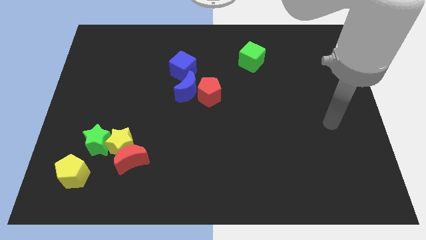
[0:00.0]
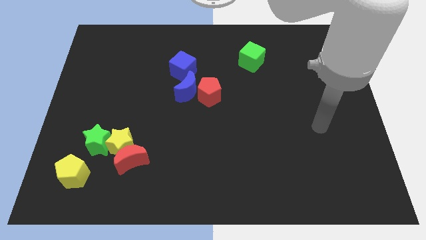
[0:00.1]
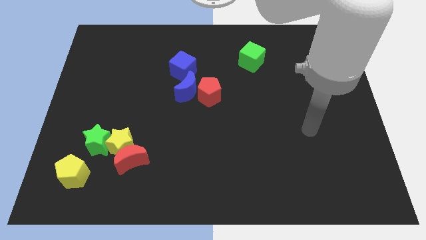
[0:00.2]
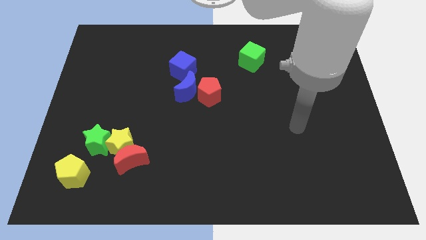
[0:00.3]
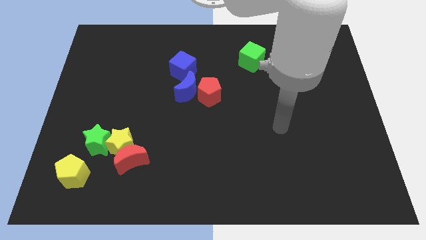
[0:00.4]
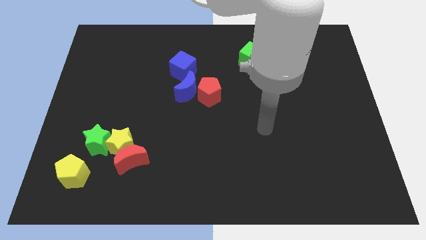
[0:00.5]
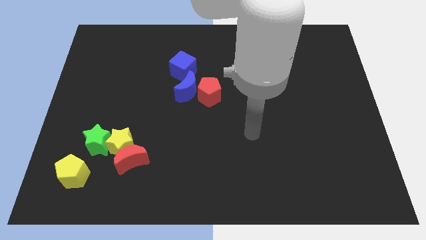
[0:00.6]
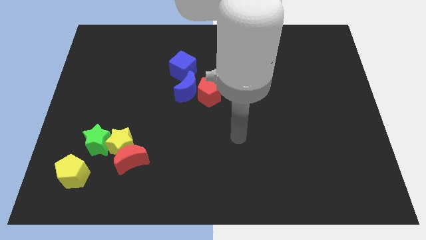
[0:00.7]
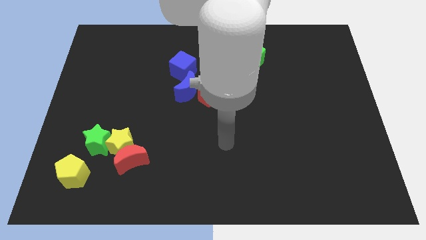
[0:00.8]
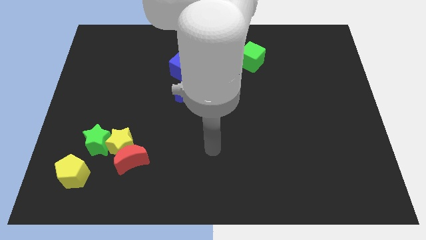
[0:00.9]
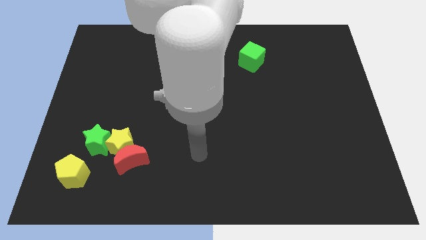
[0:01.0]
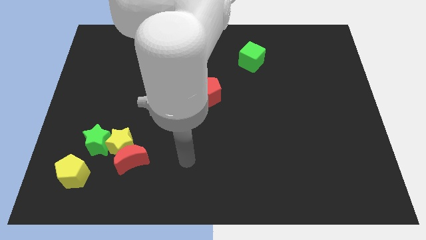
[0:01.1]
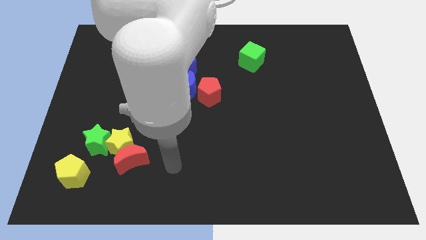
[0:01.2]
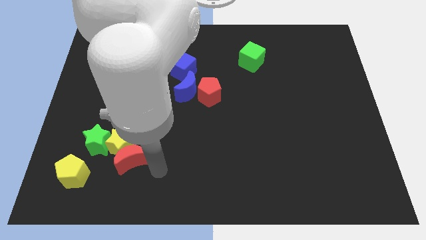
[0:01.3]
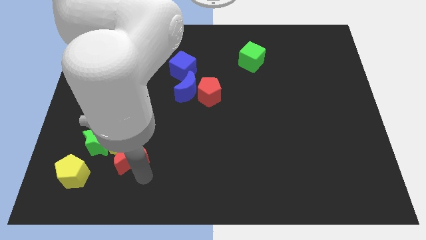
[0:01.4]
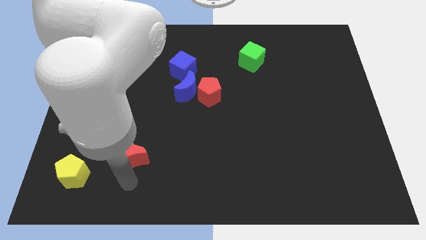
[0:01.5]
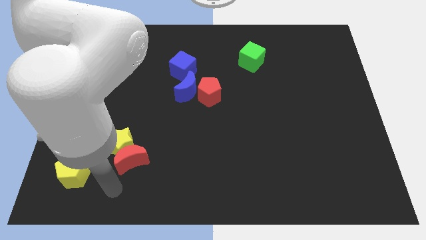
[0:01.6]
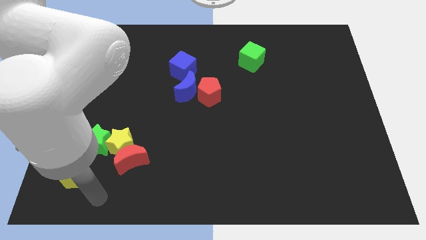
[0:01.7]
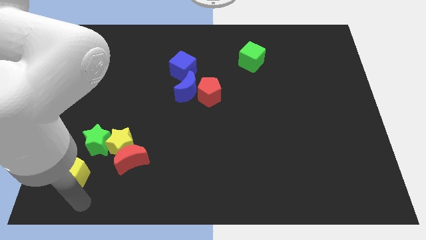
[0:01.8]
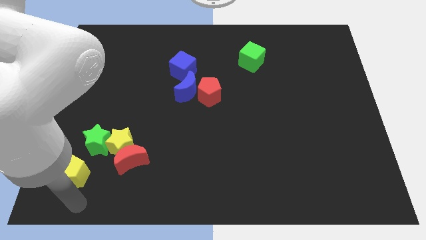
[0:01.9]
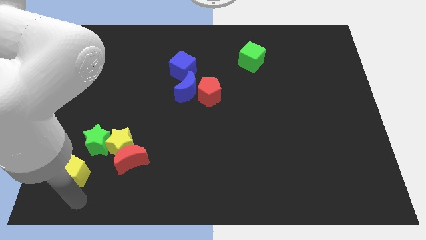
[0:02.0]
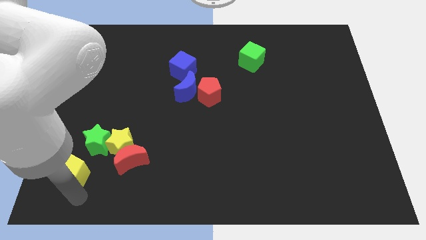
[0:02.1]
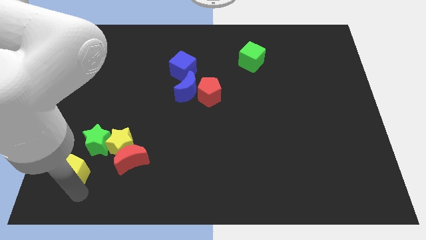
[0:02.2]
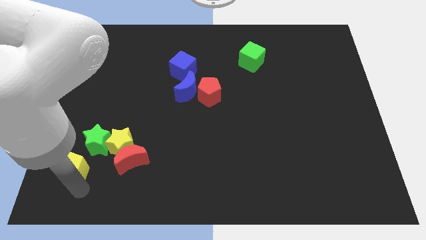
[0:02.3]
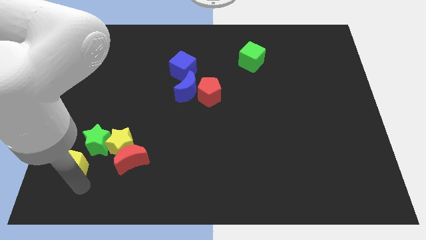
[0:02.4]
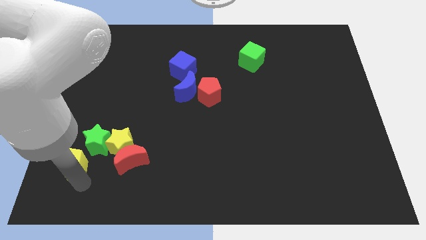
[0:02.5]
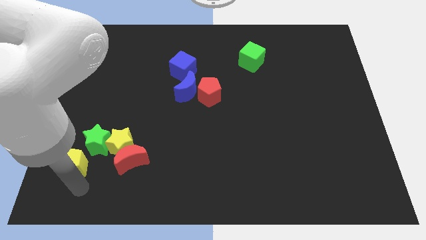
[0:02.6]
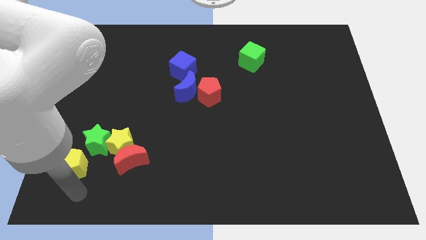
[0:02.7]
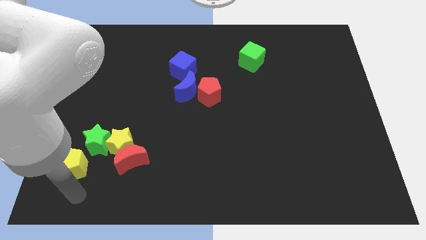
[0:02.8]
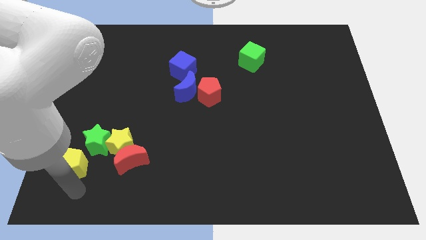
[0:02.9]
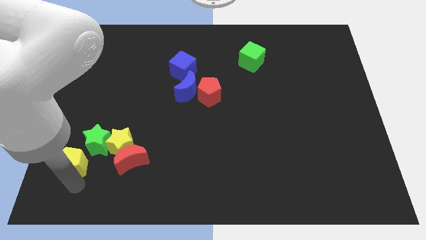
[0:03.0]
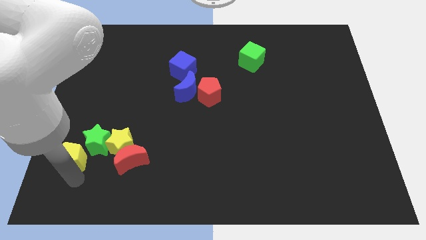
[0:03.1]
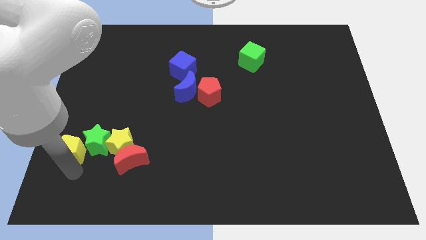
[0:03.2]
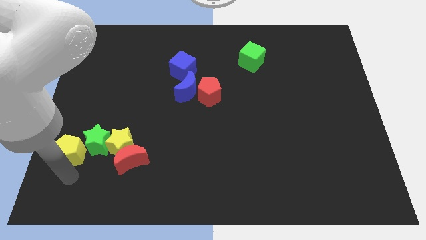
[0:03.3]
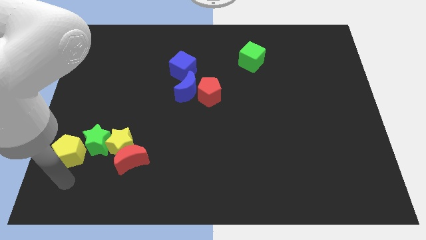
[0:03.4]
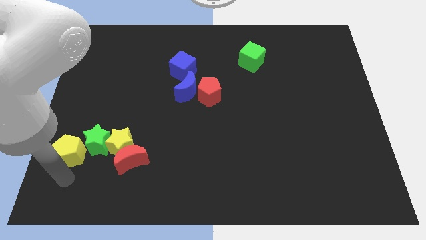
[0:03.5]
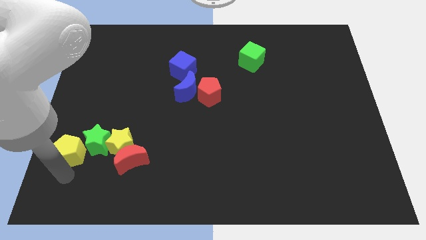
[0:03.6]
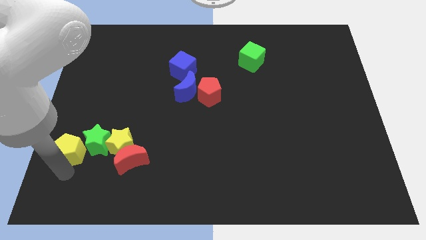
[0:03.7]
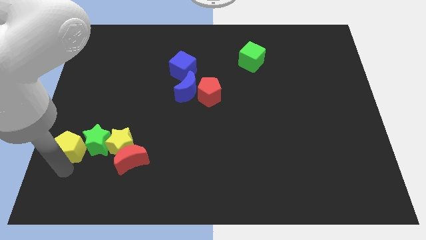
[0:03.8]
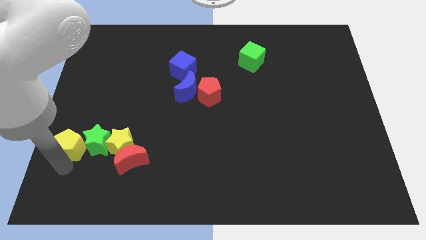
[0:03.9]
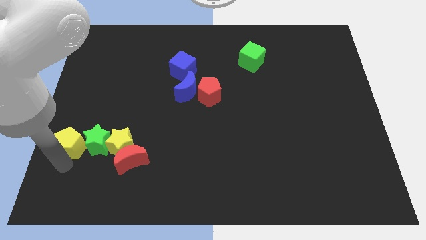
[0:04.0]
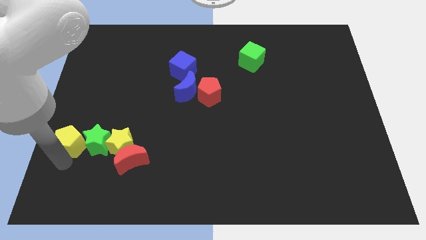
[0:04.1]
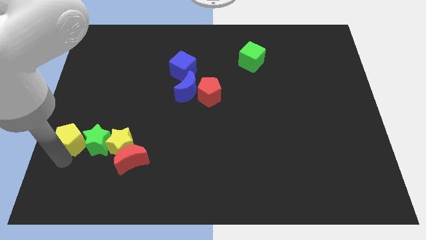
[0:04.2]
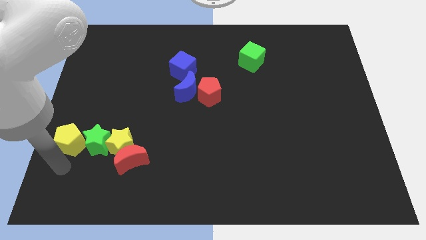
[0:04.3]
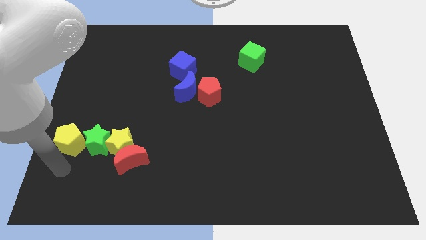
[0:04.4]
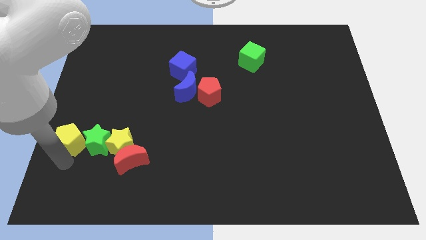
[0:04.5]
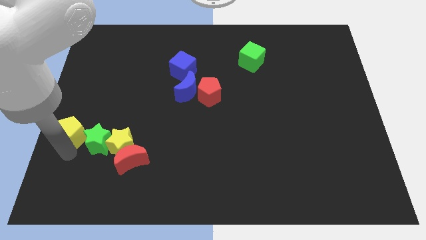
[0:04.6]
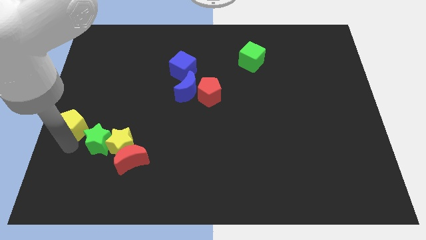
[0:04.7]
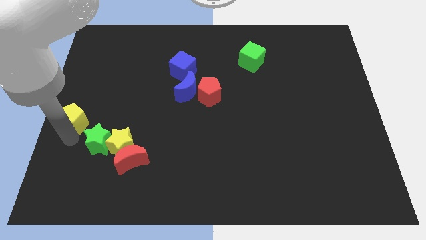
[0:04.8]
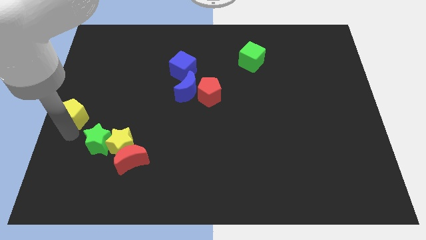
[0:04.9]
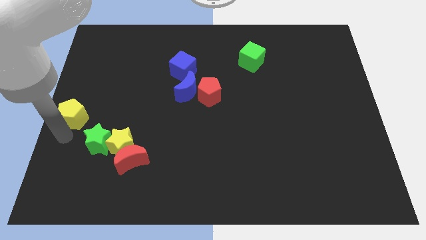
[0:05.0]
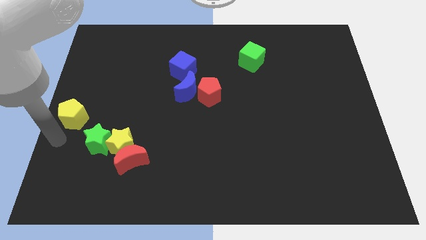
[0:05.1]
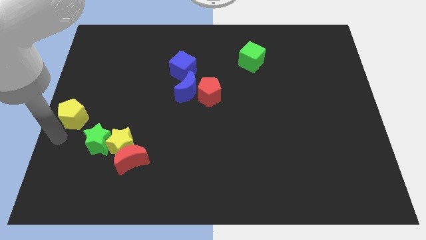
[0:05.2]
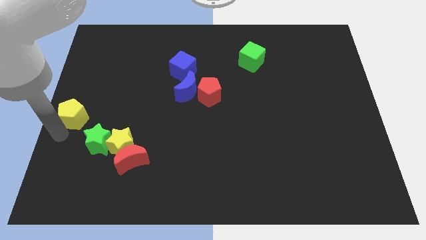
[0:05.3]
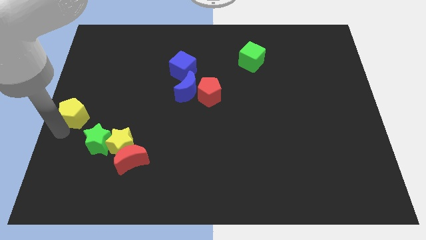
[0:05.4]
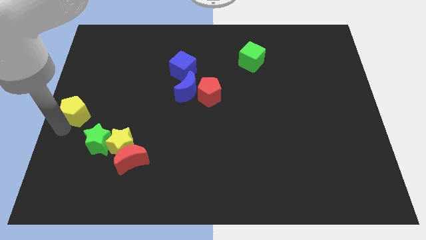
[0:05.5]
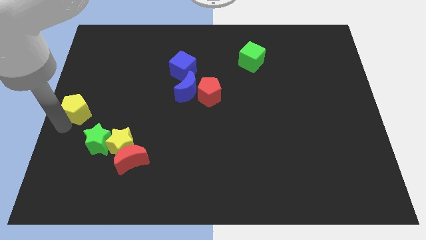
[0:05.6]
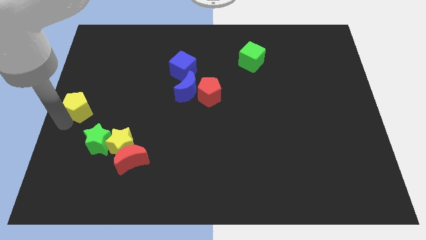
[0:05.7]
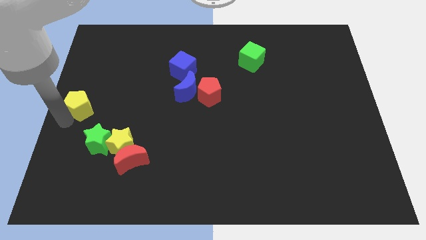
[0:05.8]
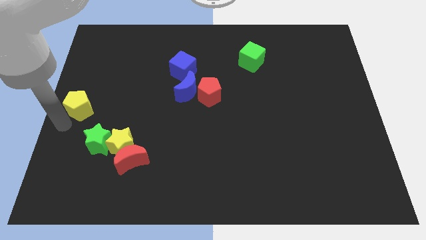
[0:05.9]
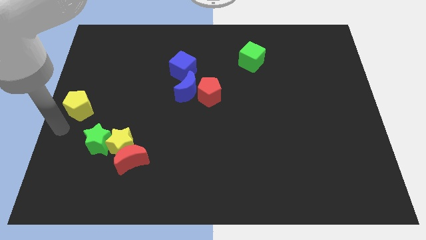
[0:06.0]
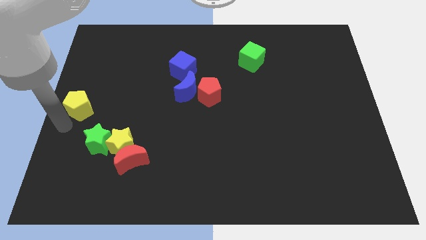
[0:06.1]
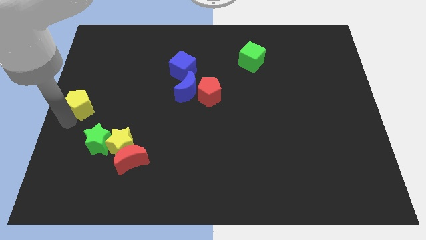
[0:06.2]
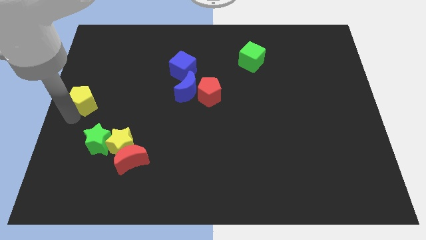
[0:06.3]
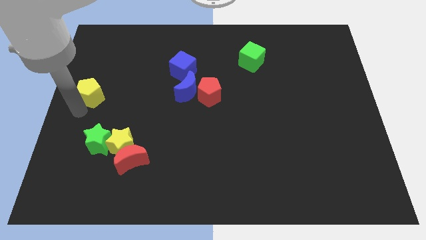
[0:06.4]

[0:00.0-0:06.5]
slide the yellow pentagon upwards

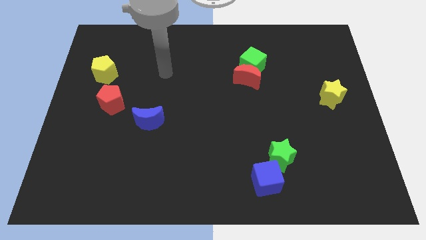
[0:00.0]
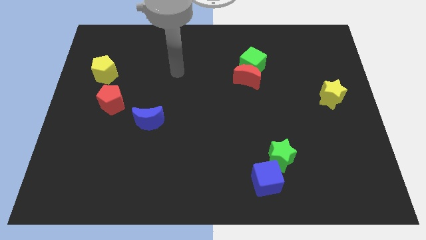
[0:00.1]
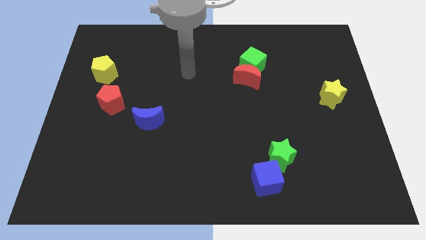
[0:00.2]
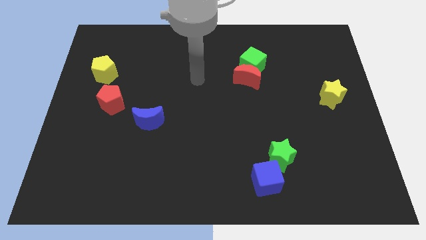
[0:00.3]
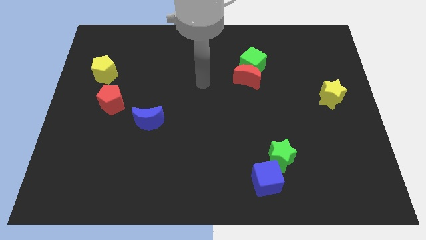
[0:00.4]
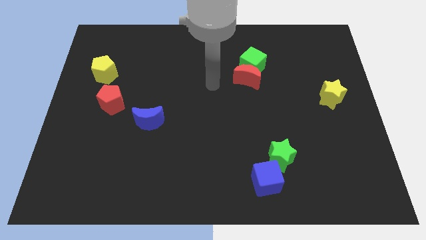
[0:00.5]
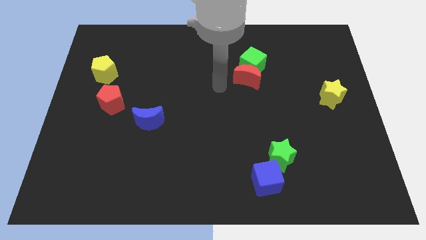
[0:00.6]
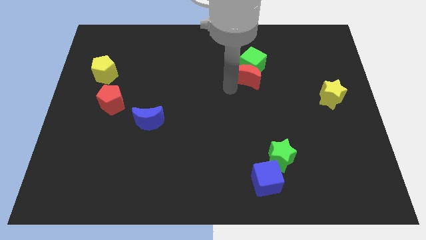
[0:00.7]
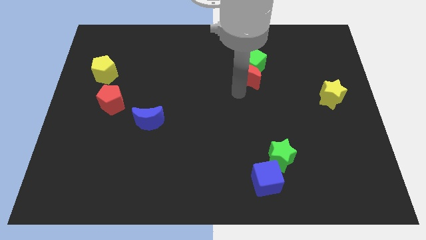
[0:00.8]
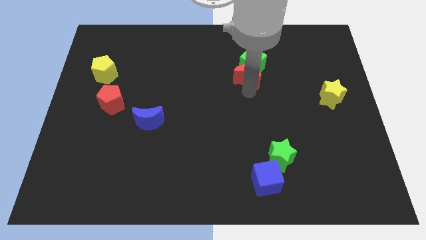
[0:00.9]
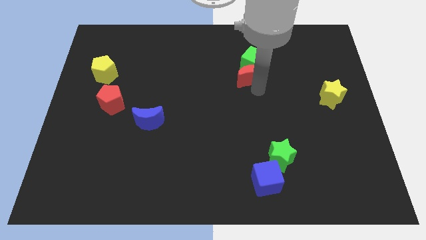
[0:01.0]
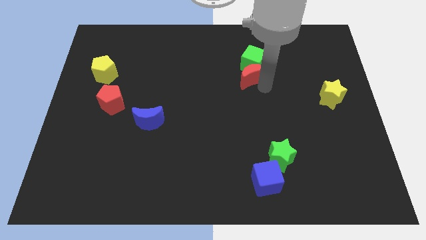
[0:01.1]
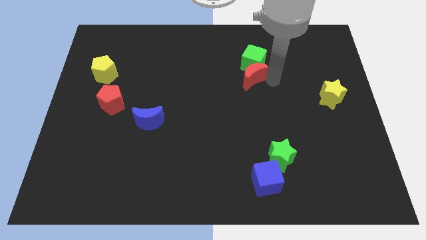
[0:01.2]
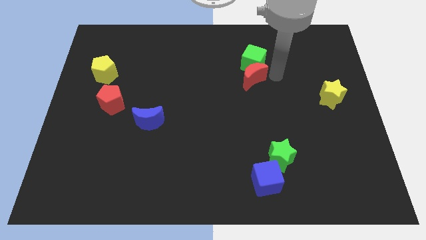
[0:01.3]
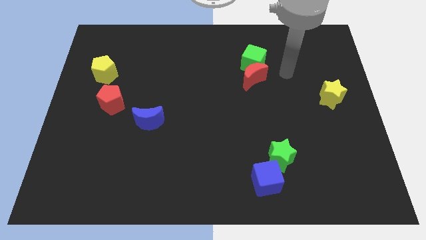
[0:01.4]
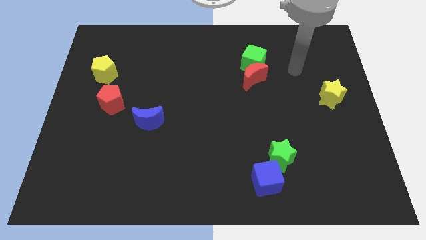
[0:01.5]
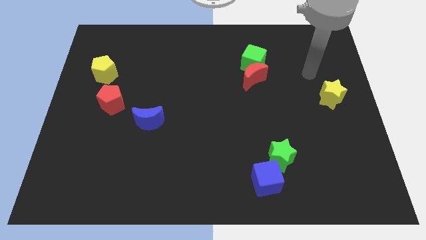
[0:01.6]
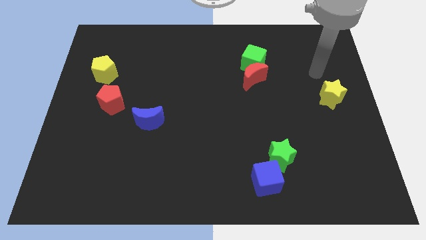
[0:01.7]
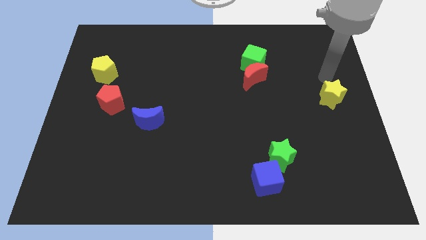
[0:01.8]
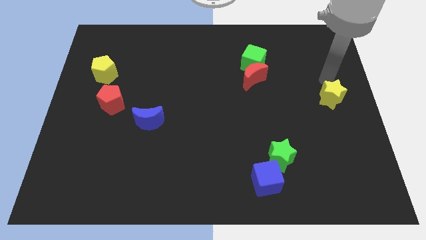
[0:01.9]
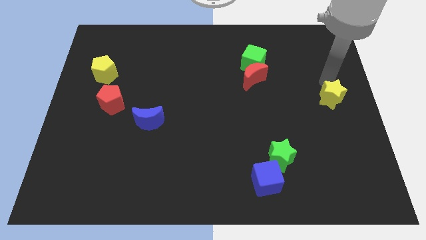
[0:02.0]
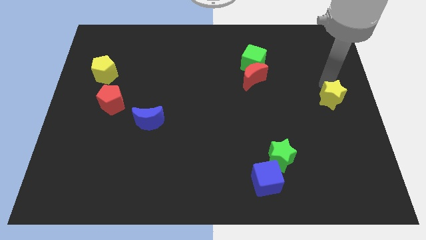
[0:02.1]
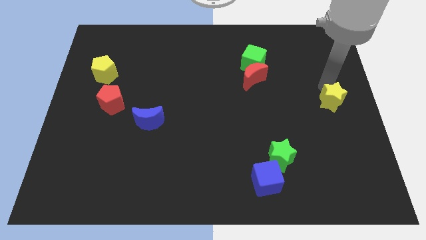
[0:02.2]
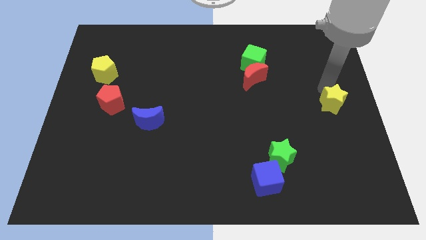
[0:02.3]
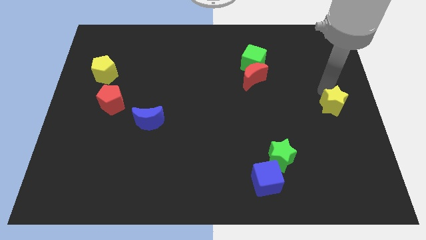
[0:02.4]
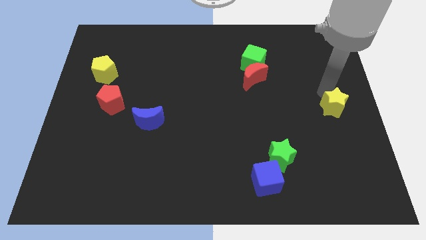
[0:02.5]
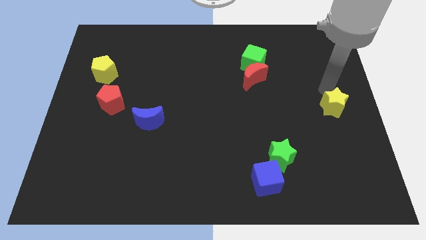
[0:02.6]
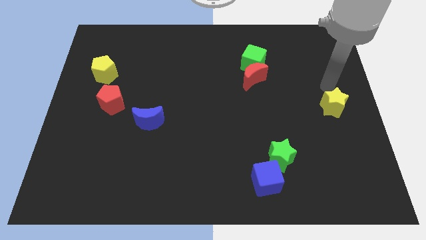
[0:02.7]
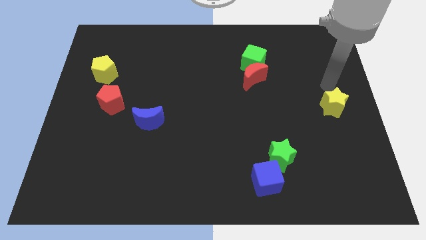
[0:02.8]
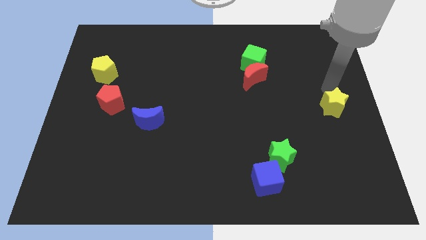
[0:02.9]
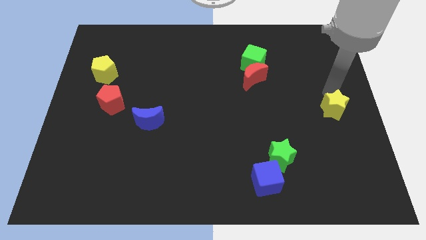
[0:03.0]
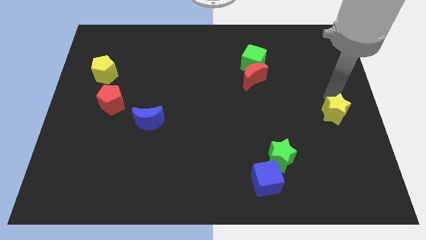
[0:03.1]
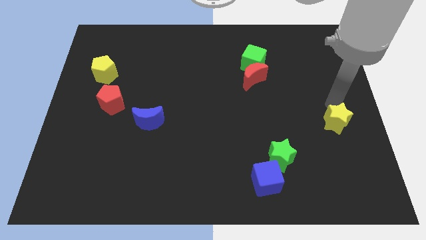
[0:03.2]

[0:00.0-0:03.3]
move the yellow star a little down
